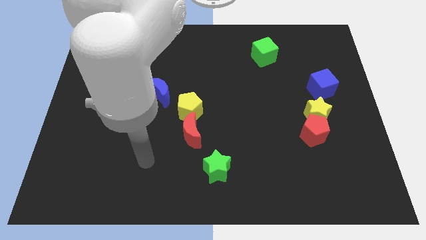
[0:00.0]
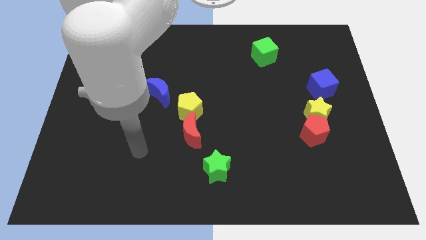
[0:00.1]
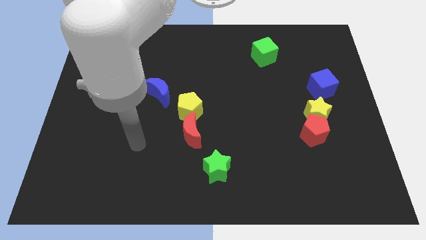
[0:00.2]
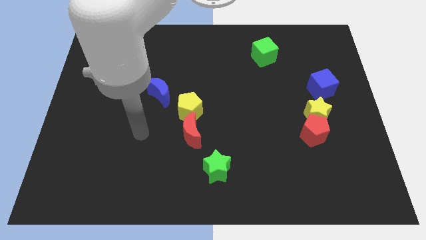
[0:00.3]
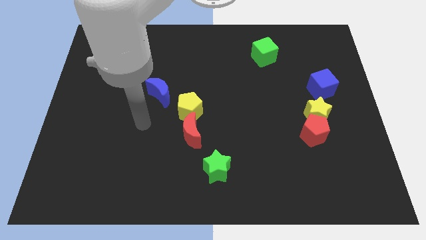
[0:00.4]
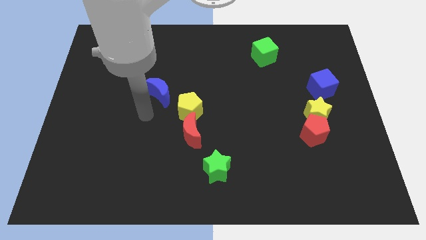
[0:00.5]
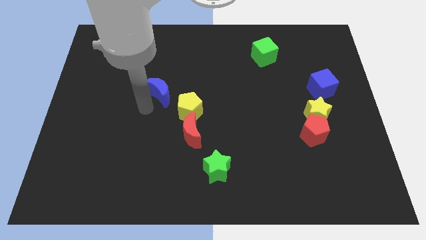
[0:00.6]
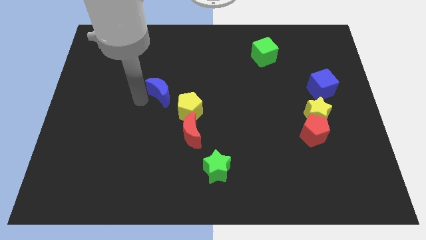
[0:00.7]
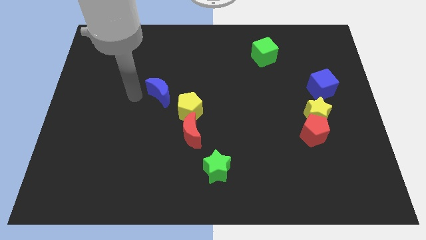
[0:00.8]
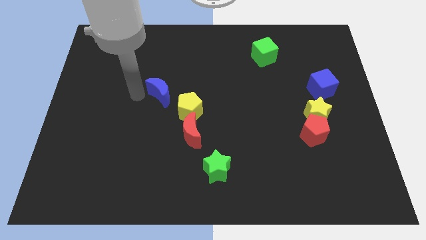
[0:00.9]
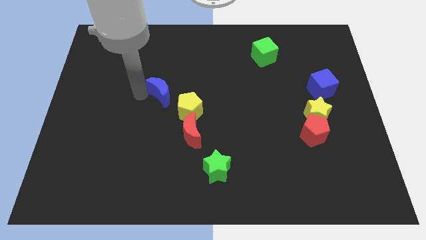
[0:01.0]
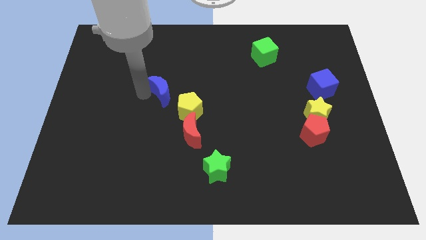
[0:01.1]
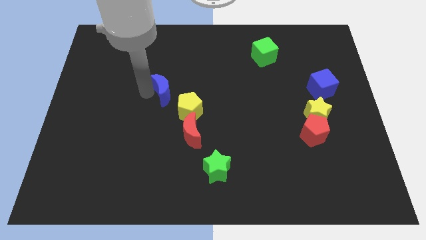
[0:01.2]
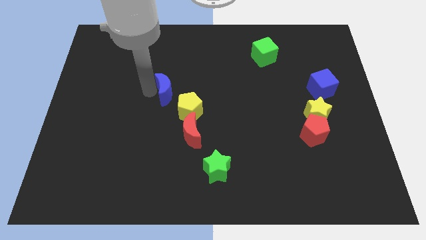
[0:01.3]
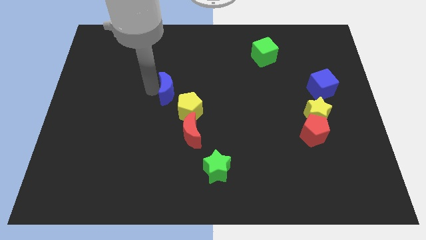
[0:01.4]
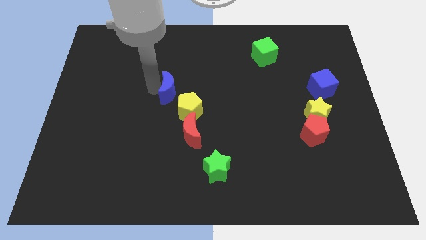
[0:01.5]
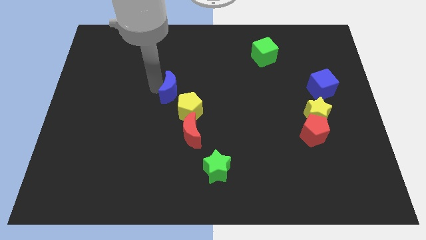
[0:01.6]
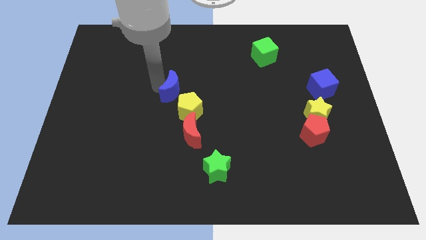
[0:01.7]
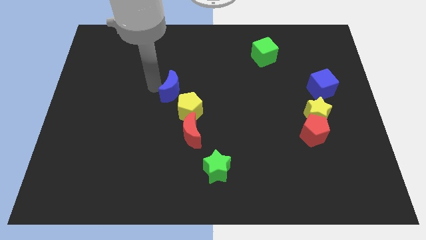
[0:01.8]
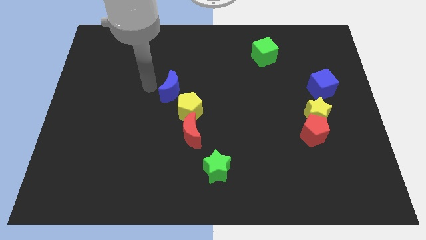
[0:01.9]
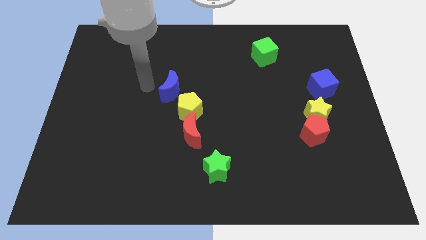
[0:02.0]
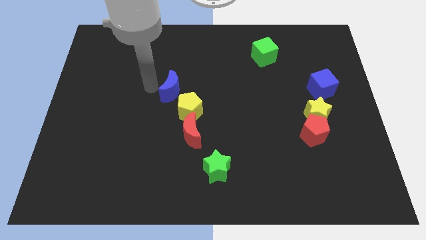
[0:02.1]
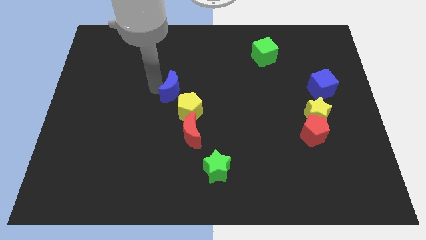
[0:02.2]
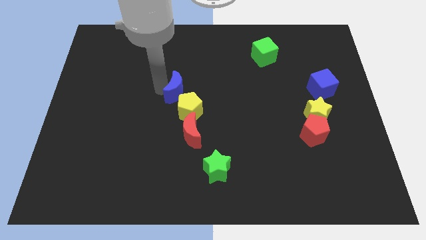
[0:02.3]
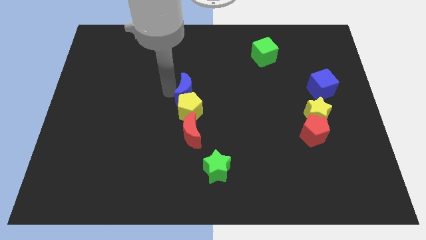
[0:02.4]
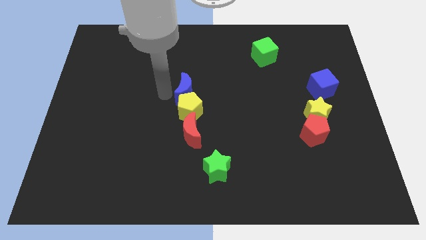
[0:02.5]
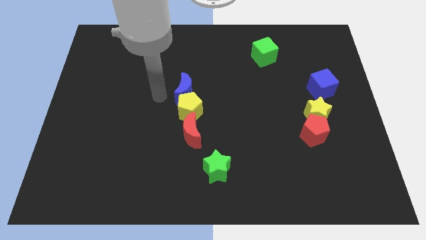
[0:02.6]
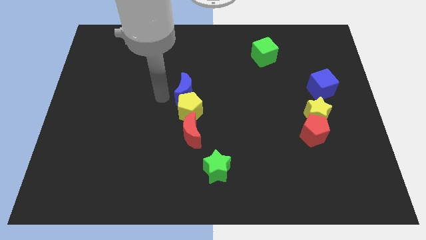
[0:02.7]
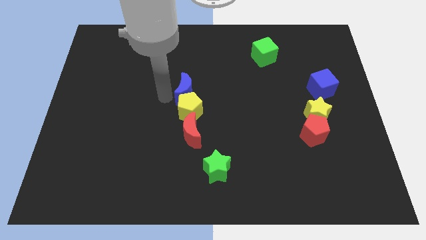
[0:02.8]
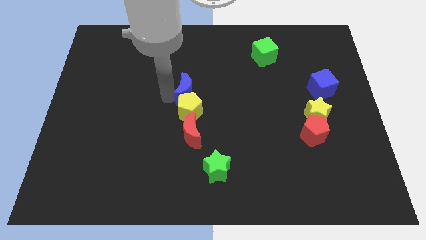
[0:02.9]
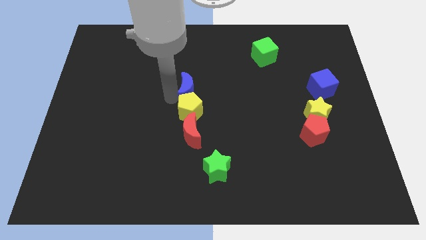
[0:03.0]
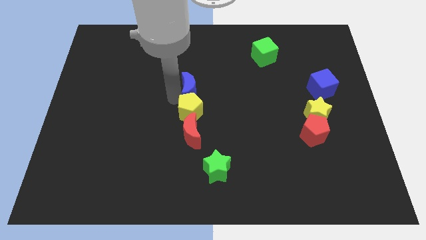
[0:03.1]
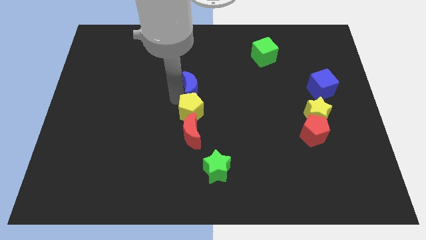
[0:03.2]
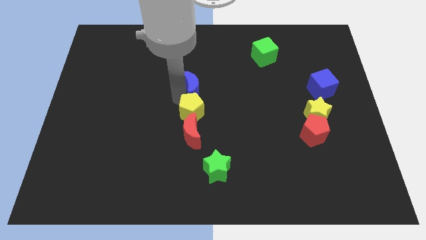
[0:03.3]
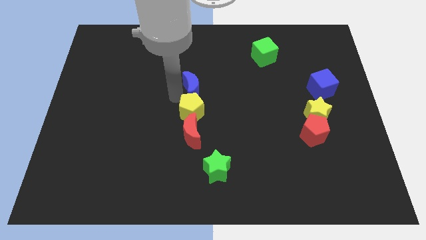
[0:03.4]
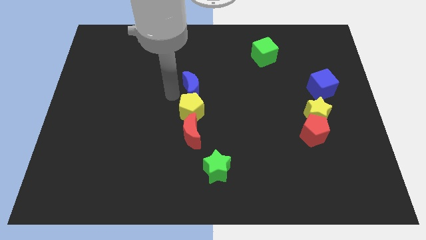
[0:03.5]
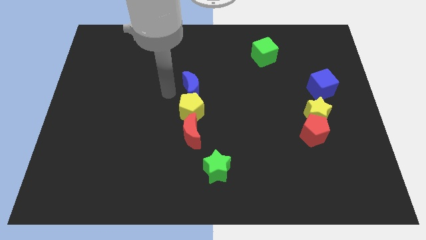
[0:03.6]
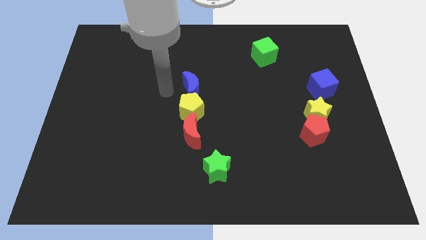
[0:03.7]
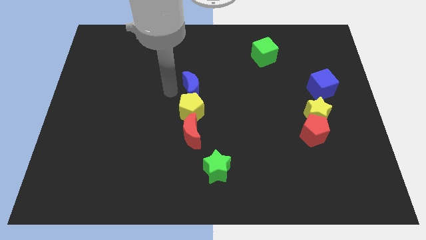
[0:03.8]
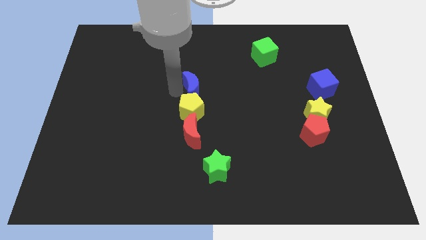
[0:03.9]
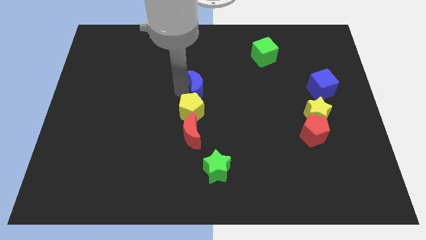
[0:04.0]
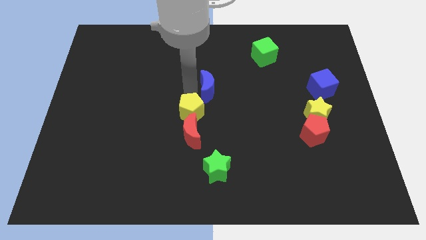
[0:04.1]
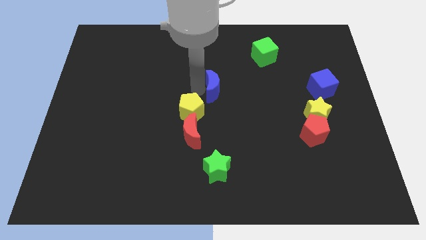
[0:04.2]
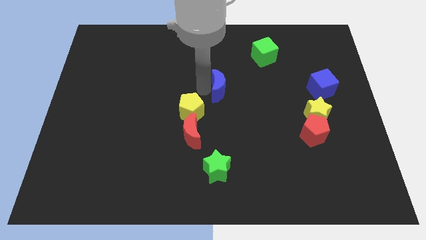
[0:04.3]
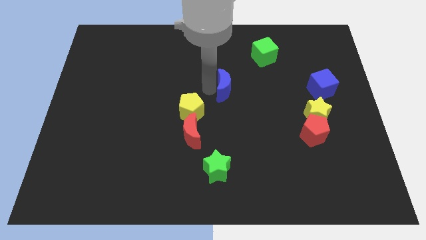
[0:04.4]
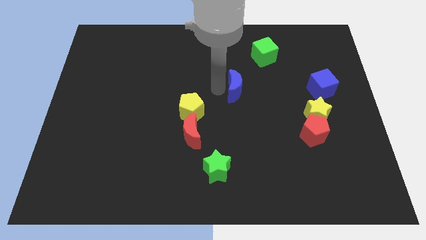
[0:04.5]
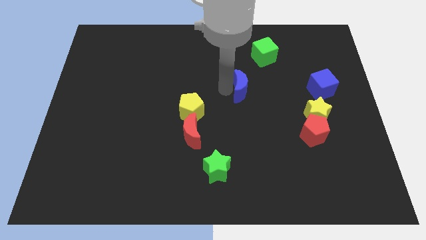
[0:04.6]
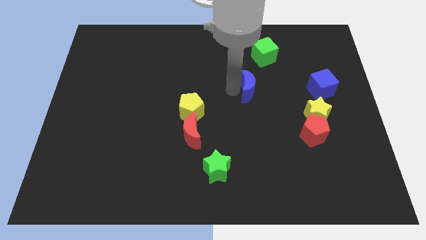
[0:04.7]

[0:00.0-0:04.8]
push the blue moon right

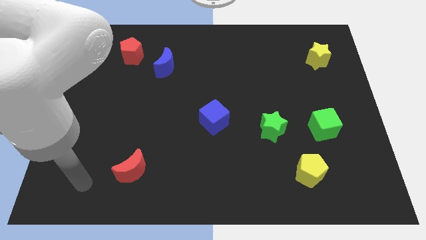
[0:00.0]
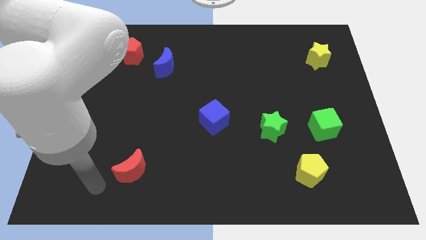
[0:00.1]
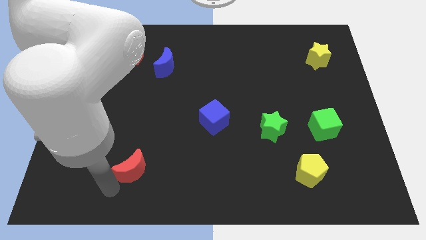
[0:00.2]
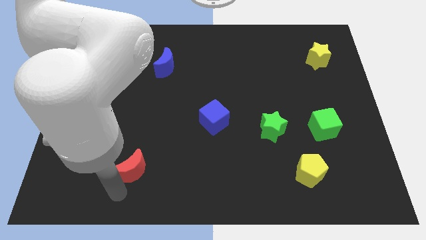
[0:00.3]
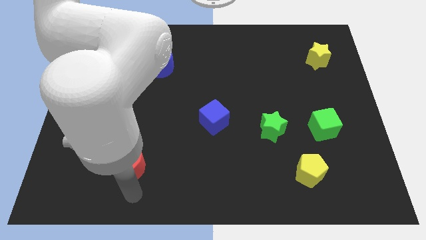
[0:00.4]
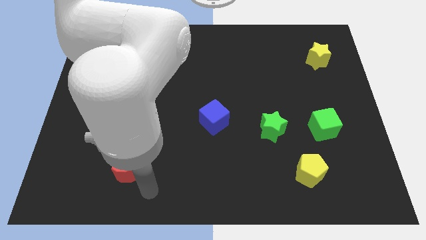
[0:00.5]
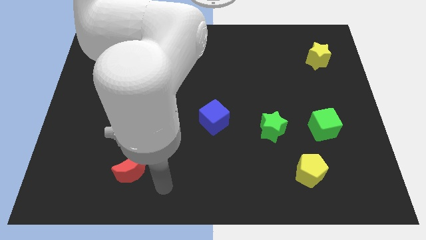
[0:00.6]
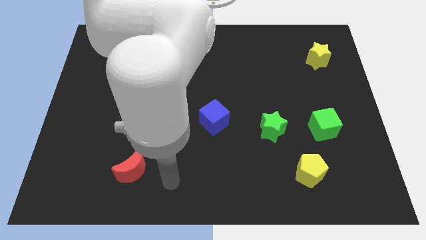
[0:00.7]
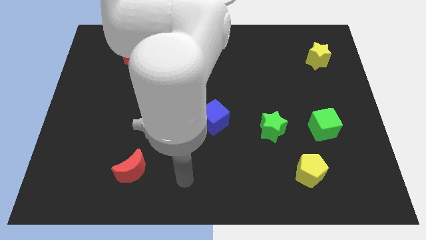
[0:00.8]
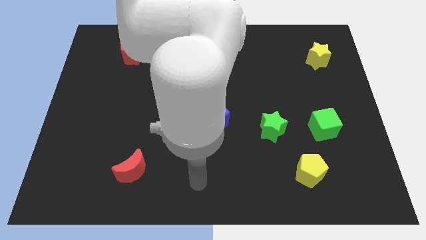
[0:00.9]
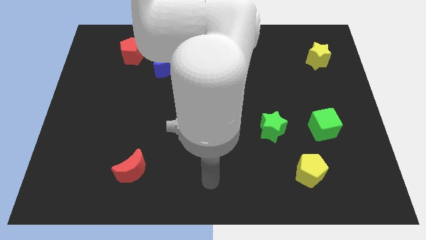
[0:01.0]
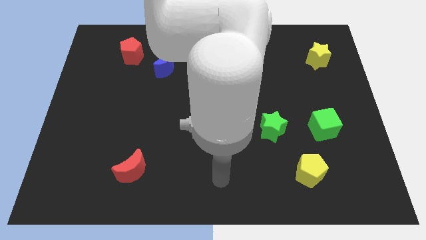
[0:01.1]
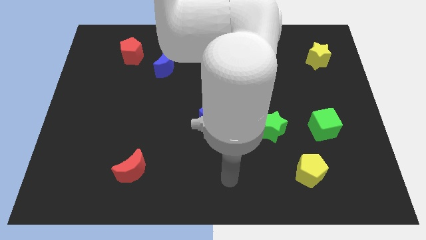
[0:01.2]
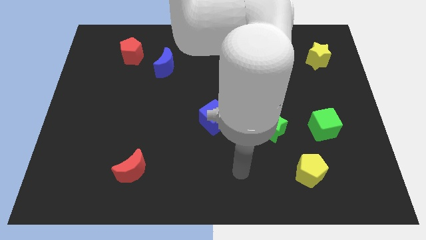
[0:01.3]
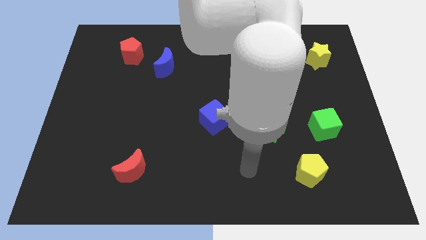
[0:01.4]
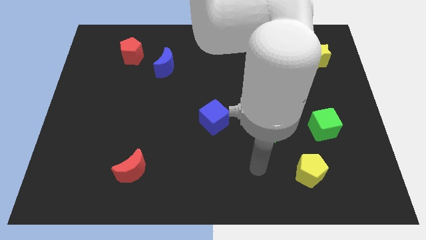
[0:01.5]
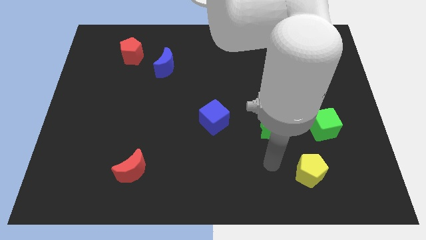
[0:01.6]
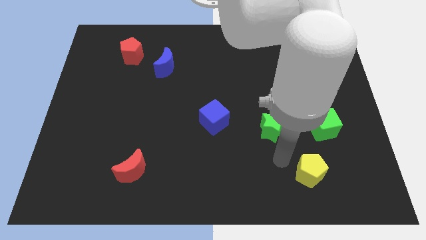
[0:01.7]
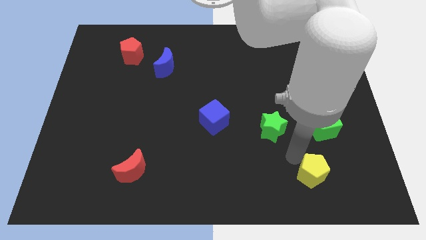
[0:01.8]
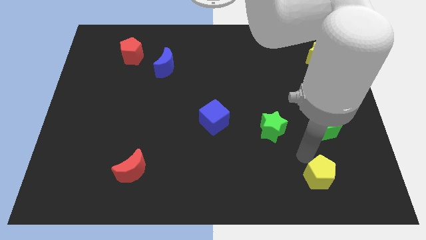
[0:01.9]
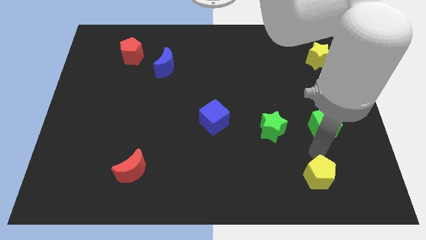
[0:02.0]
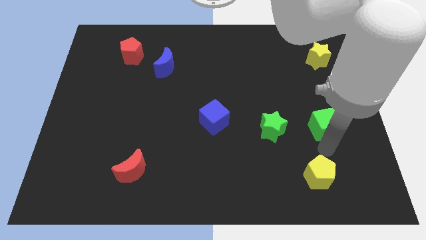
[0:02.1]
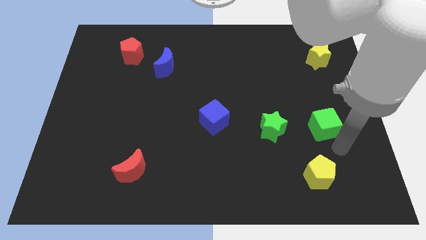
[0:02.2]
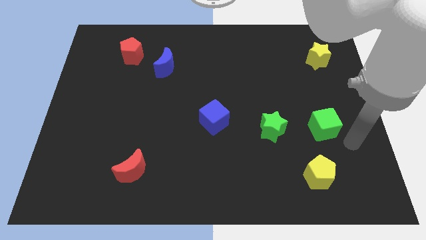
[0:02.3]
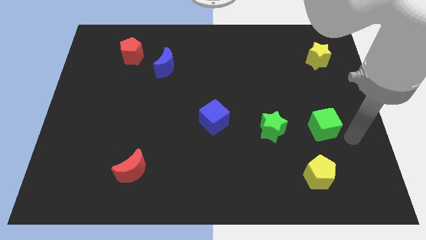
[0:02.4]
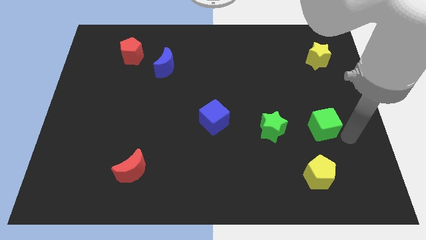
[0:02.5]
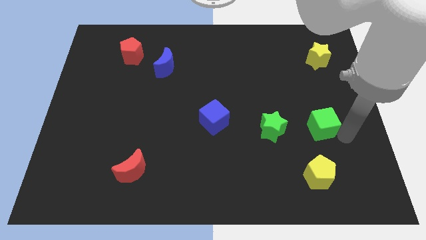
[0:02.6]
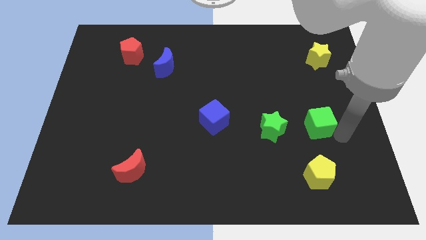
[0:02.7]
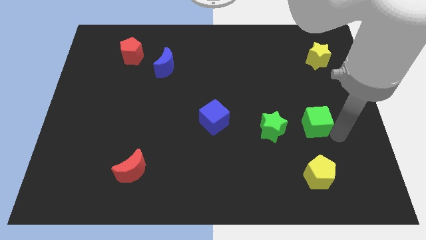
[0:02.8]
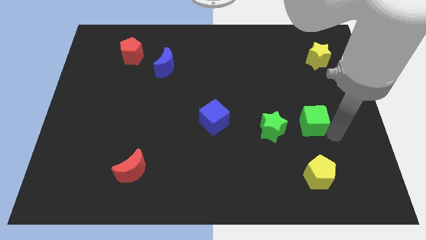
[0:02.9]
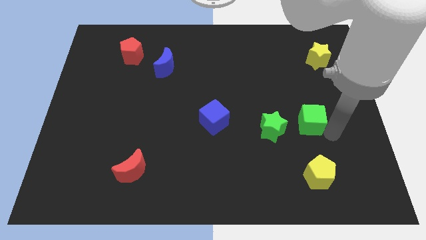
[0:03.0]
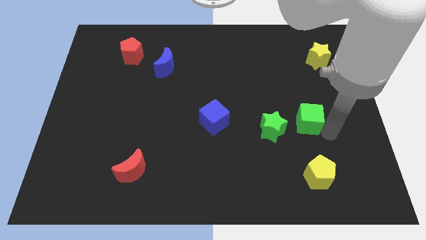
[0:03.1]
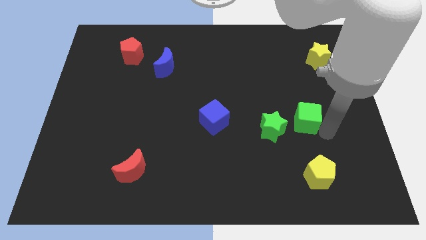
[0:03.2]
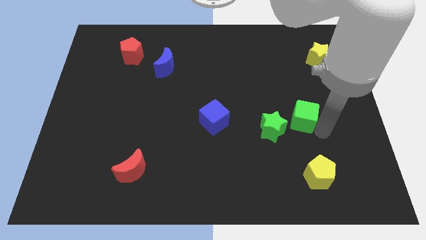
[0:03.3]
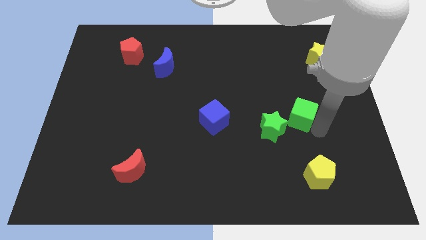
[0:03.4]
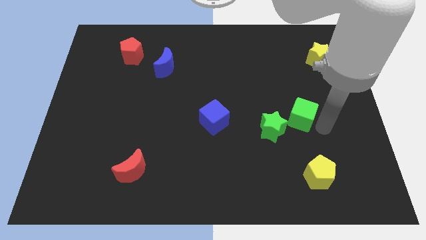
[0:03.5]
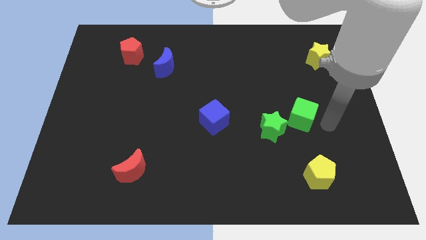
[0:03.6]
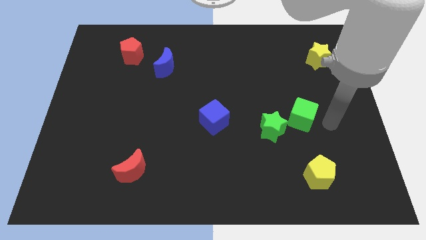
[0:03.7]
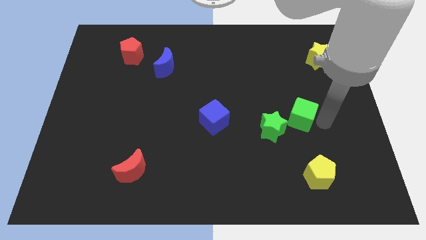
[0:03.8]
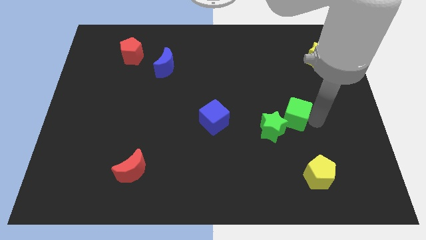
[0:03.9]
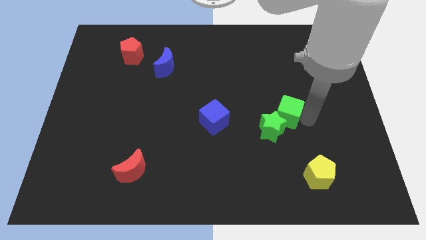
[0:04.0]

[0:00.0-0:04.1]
push the green cube left a bit
